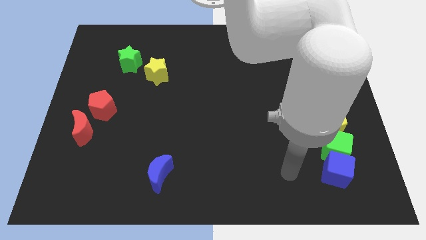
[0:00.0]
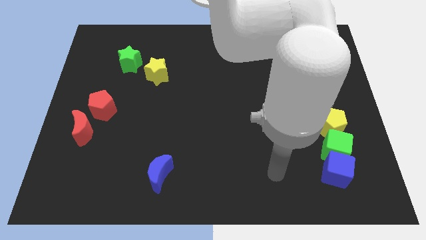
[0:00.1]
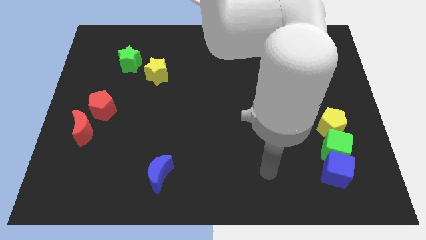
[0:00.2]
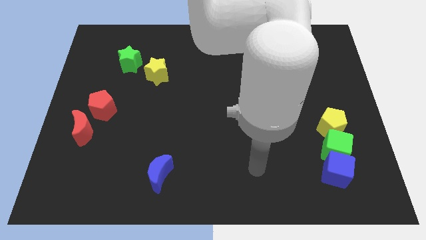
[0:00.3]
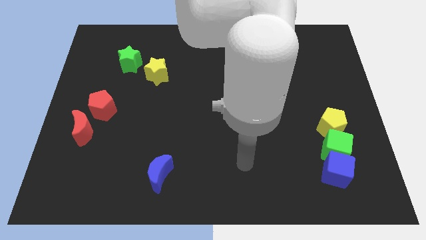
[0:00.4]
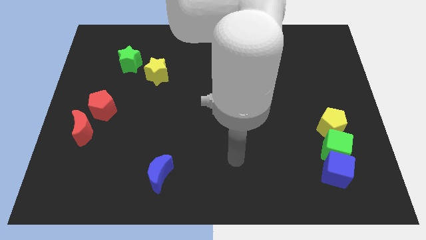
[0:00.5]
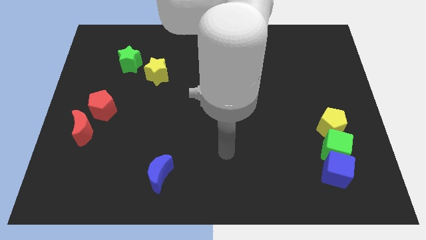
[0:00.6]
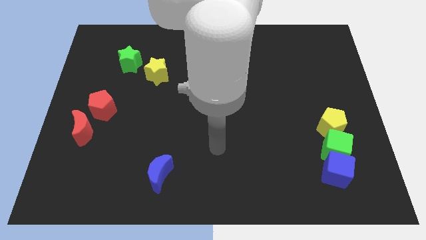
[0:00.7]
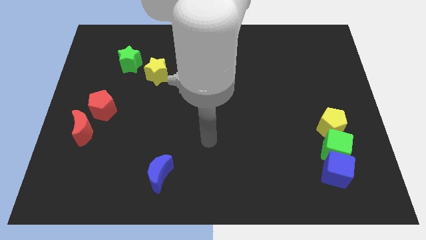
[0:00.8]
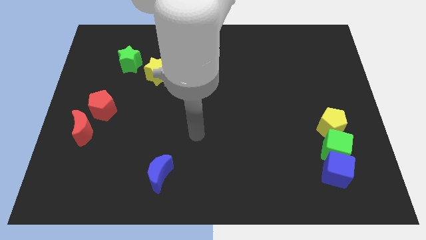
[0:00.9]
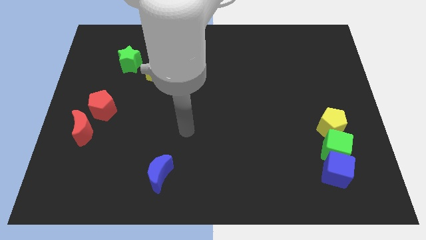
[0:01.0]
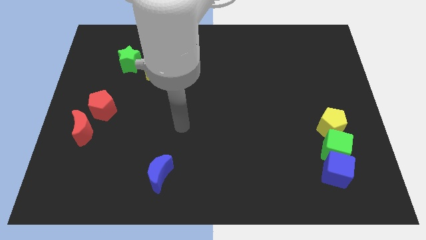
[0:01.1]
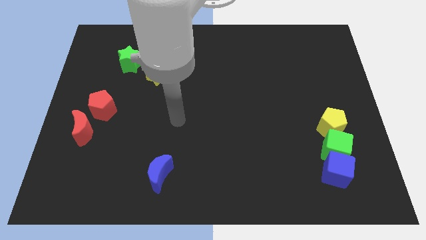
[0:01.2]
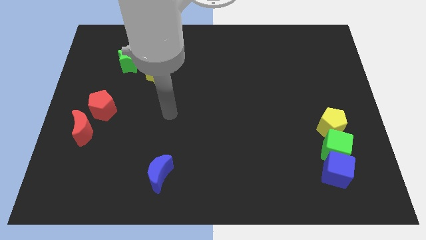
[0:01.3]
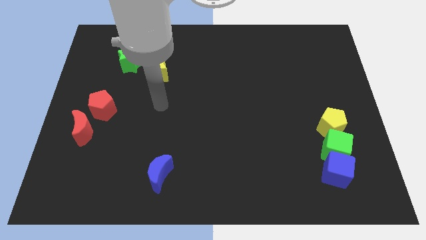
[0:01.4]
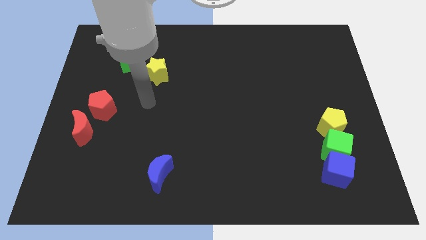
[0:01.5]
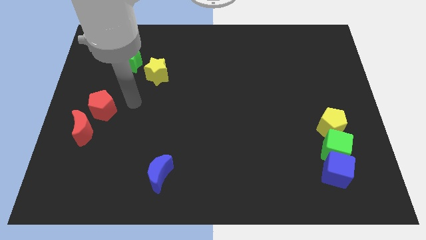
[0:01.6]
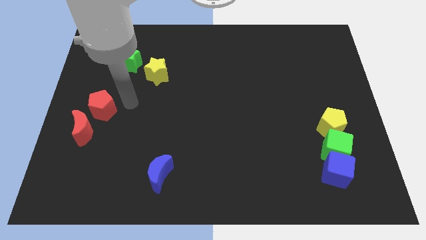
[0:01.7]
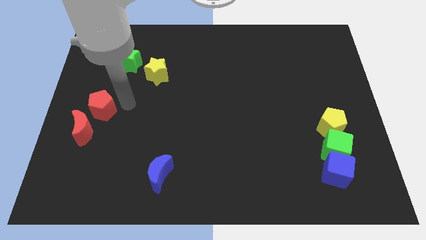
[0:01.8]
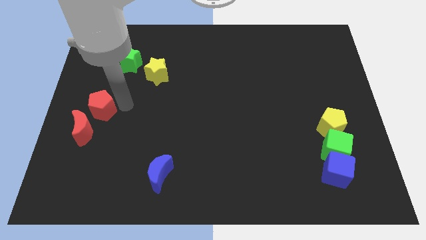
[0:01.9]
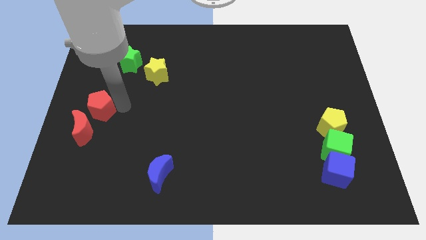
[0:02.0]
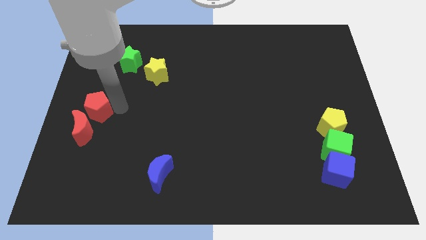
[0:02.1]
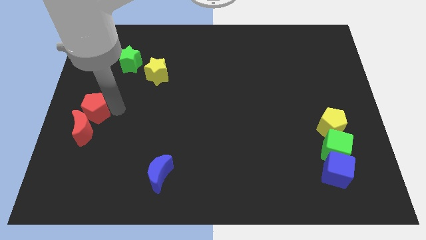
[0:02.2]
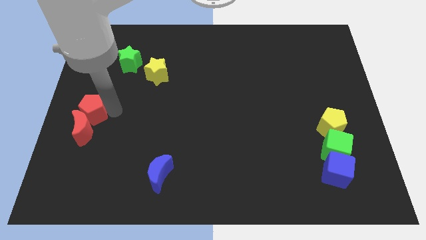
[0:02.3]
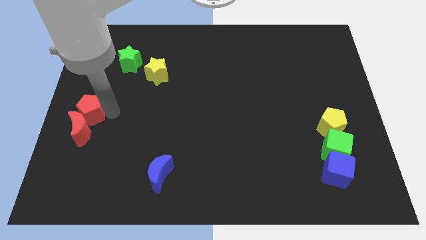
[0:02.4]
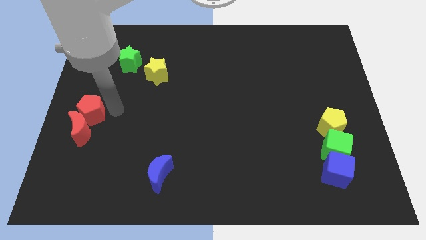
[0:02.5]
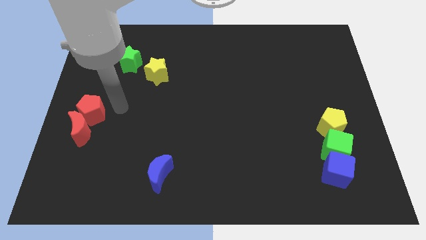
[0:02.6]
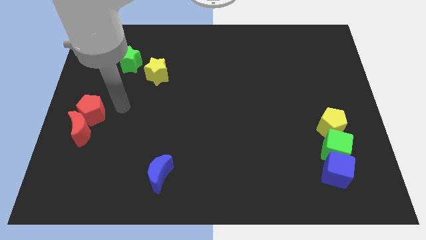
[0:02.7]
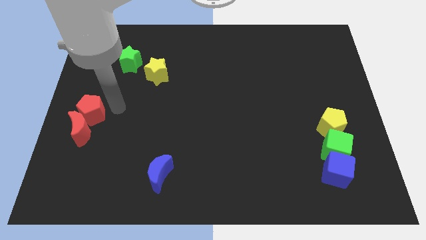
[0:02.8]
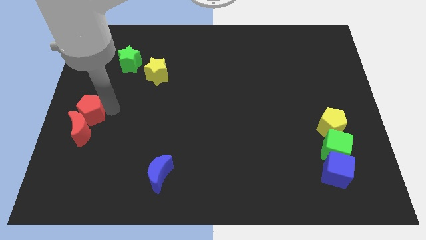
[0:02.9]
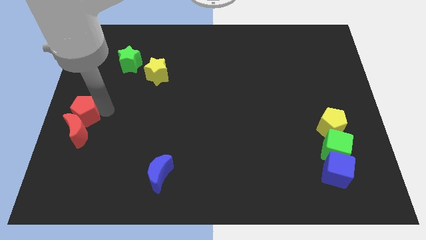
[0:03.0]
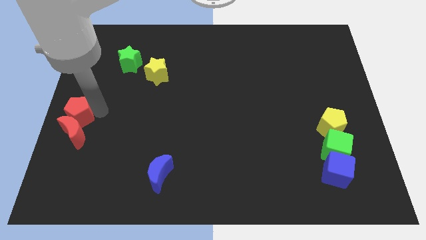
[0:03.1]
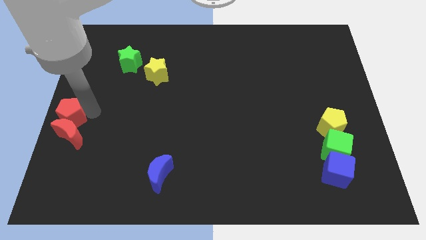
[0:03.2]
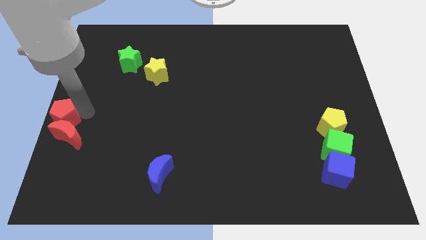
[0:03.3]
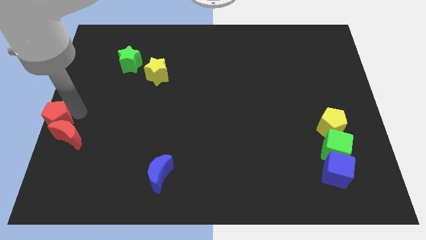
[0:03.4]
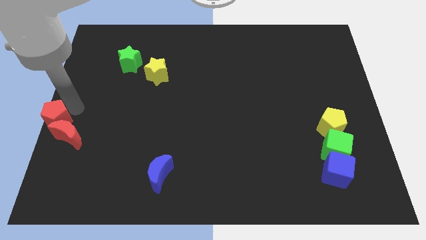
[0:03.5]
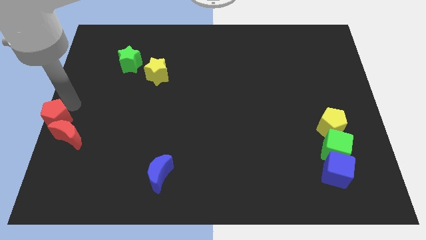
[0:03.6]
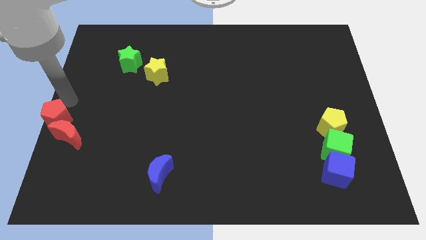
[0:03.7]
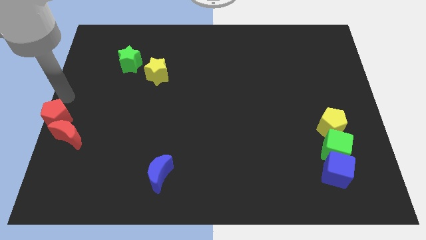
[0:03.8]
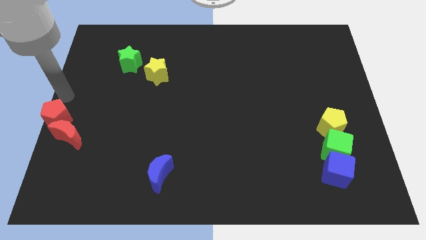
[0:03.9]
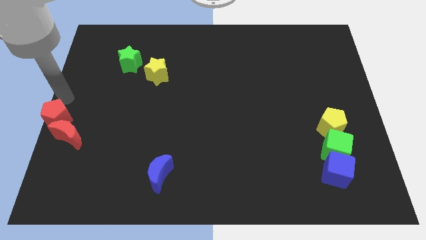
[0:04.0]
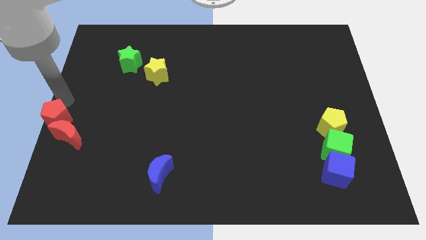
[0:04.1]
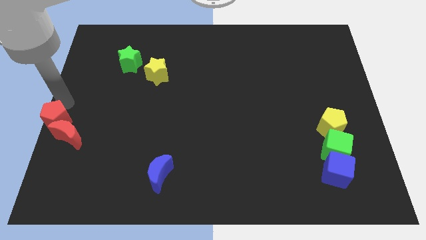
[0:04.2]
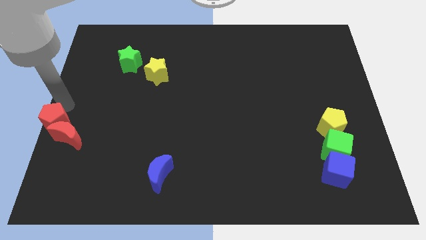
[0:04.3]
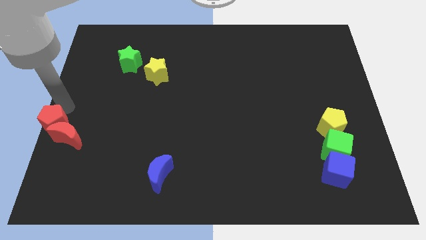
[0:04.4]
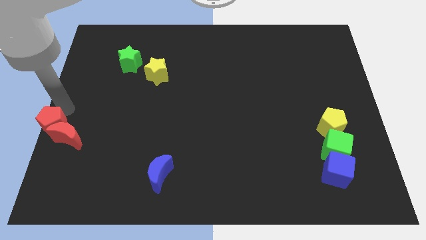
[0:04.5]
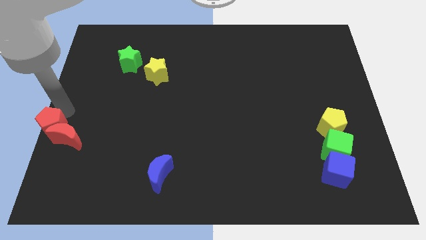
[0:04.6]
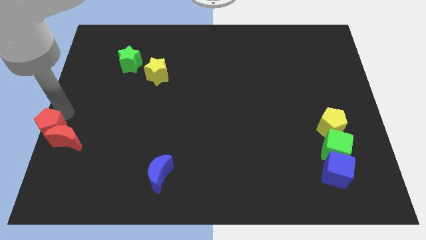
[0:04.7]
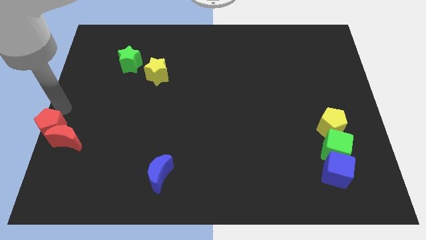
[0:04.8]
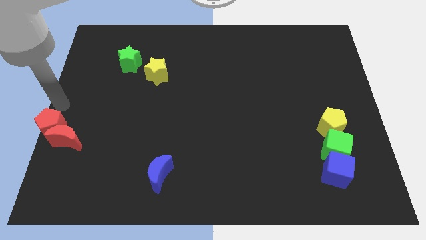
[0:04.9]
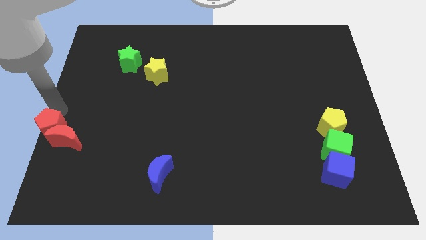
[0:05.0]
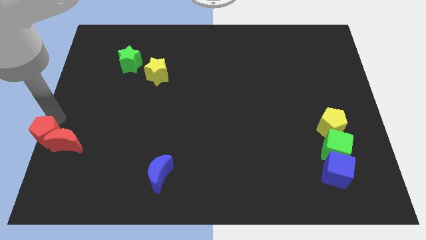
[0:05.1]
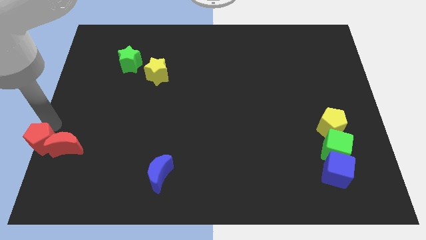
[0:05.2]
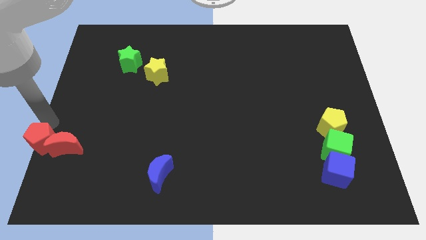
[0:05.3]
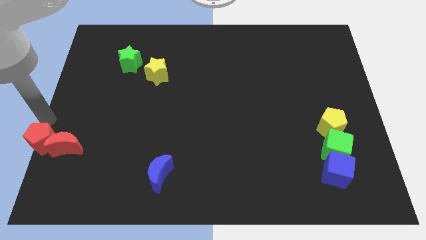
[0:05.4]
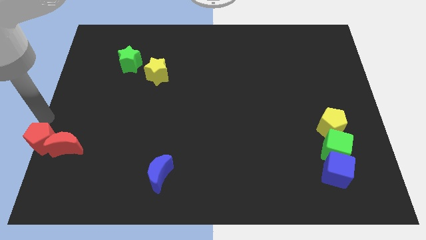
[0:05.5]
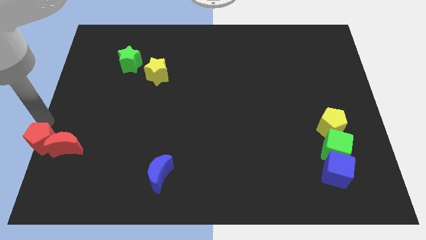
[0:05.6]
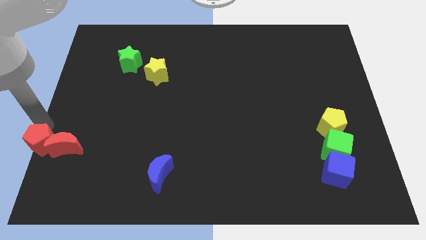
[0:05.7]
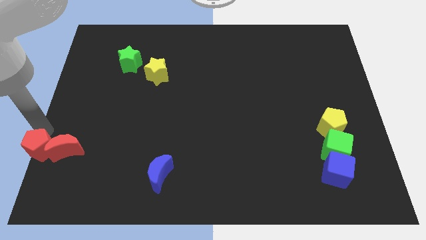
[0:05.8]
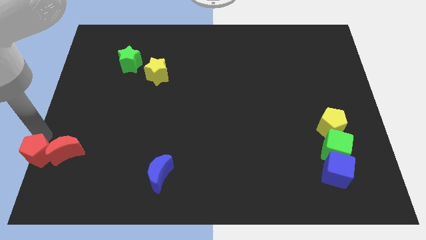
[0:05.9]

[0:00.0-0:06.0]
push the red pentagon to the lower left corner

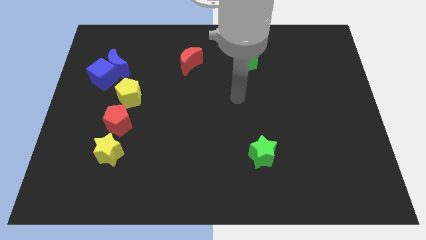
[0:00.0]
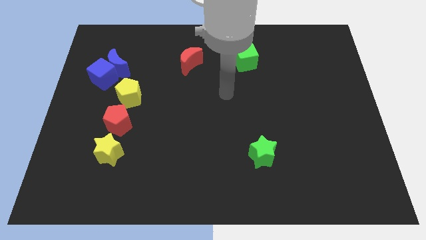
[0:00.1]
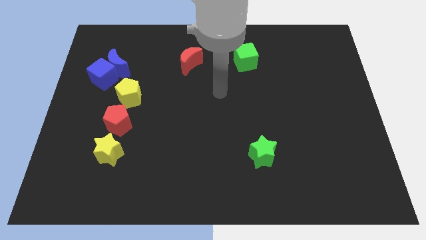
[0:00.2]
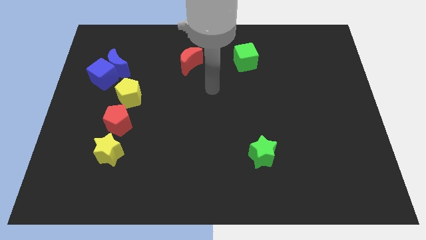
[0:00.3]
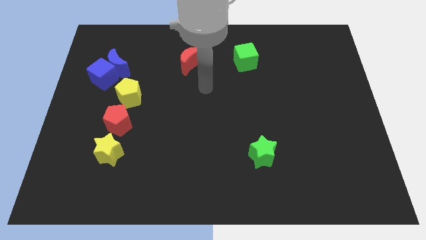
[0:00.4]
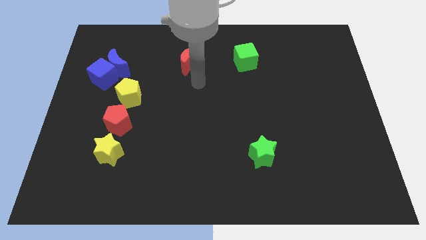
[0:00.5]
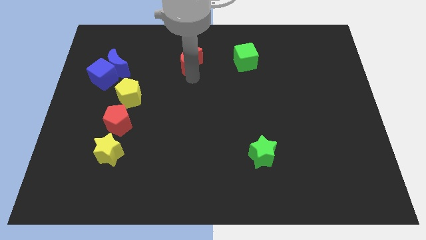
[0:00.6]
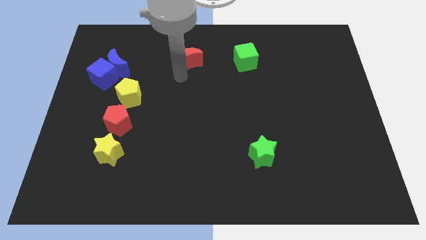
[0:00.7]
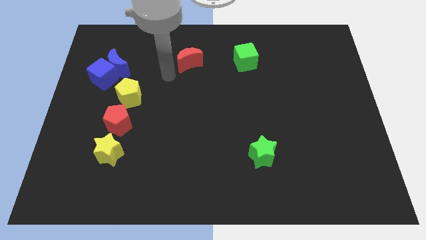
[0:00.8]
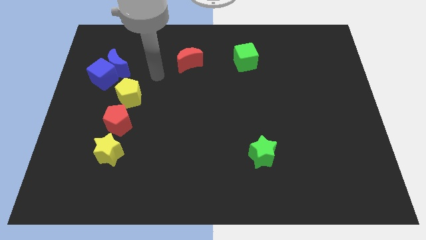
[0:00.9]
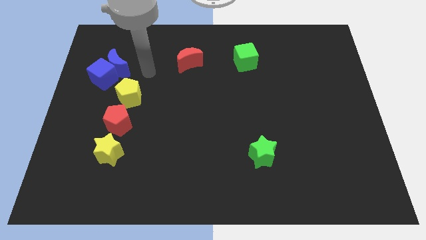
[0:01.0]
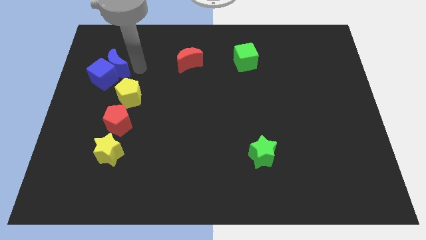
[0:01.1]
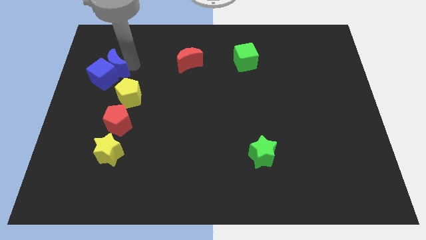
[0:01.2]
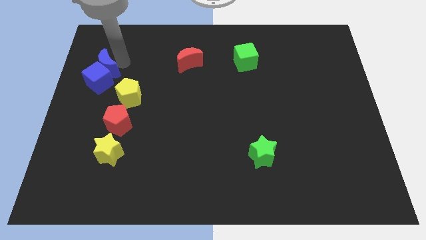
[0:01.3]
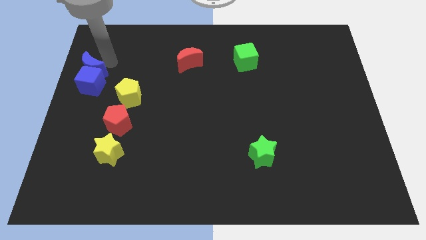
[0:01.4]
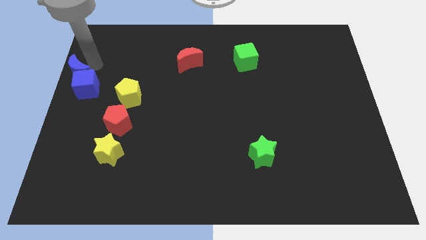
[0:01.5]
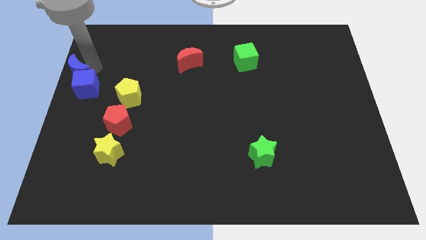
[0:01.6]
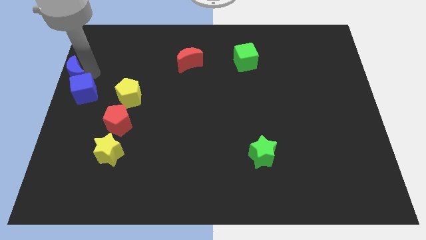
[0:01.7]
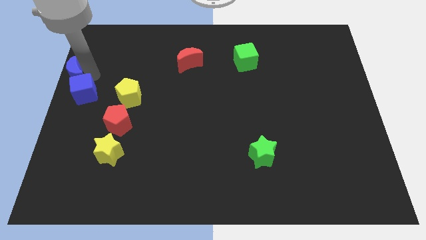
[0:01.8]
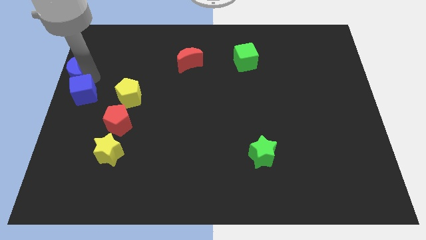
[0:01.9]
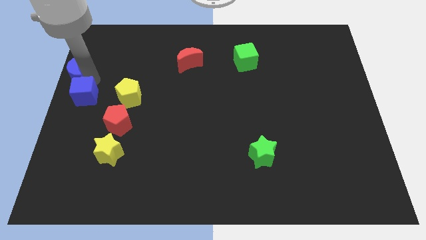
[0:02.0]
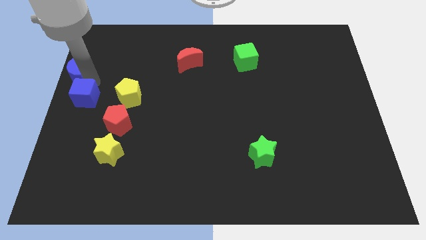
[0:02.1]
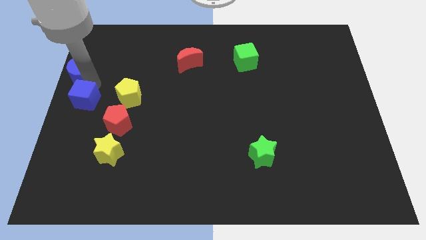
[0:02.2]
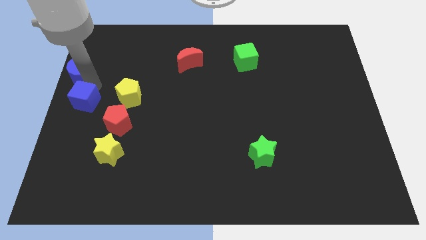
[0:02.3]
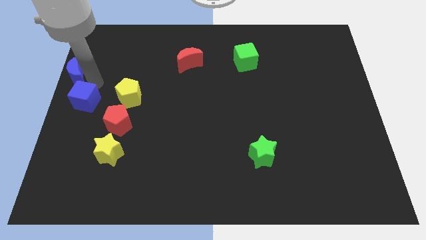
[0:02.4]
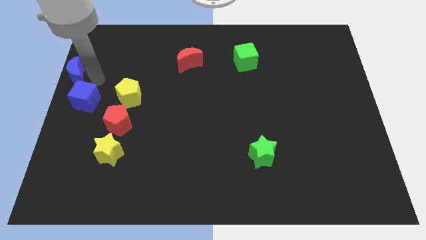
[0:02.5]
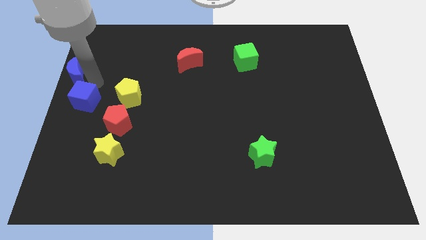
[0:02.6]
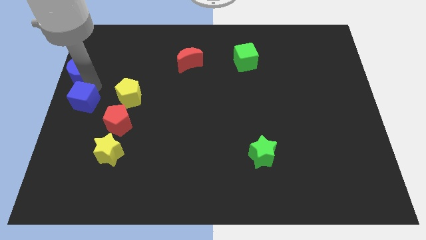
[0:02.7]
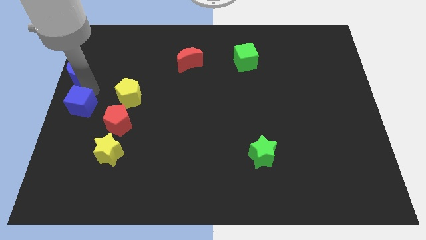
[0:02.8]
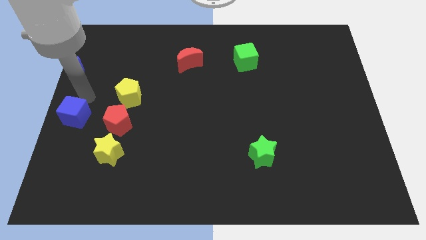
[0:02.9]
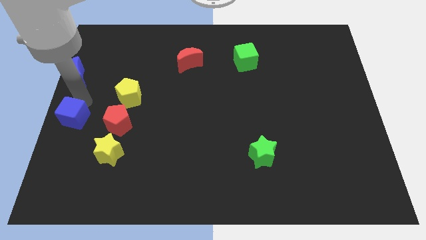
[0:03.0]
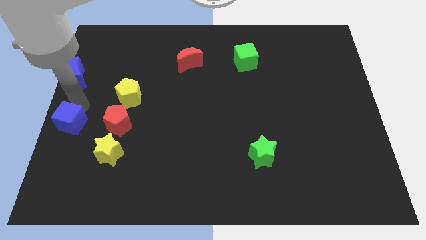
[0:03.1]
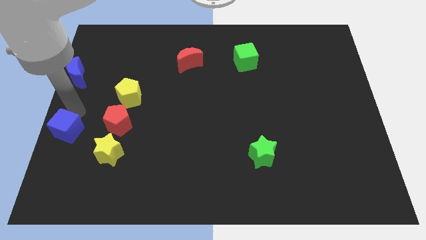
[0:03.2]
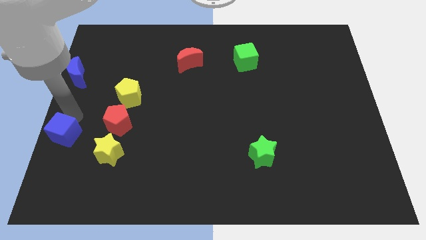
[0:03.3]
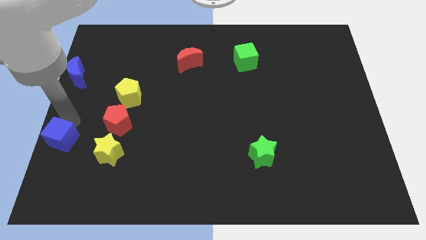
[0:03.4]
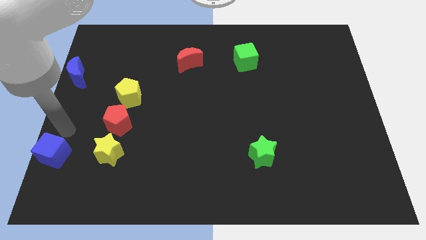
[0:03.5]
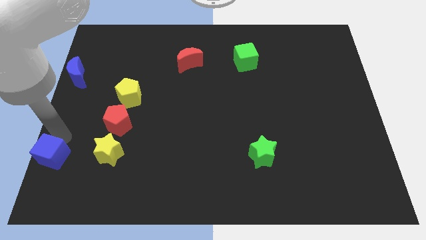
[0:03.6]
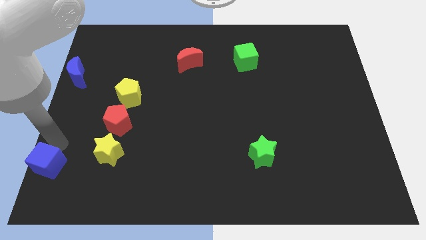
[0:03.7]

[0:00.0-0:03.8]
move the blue cube to the bottom left corner
